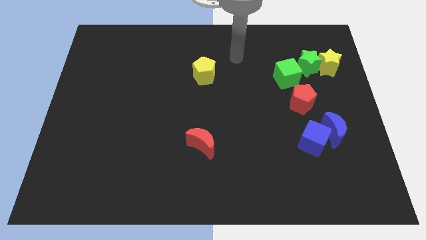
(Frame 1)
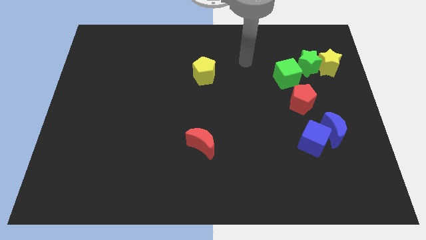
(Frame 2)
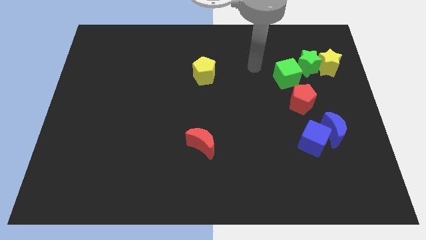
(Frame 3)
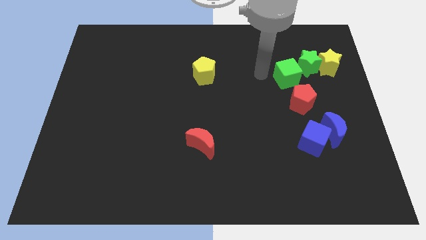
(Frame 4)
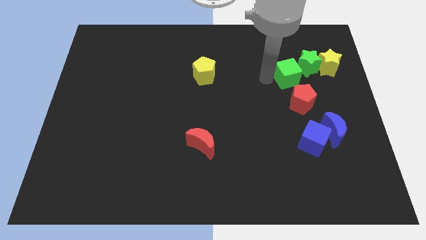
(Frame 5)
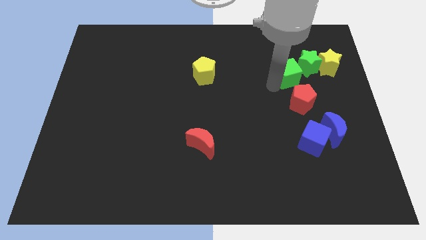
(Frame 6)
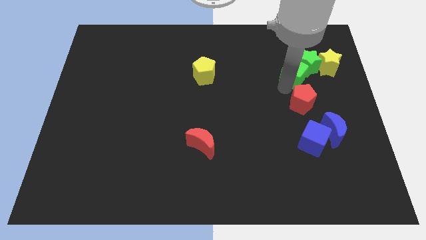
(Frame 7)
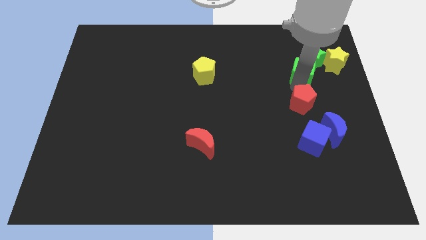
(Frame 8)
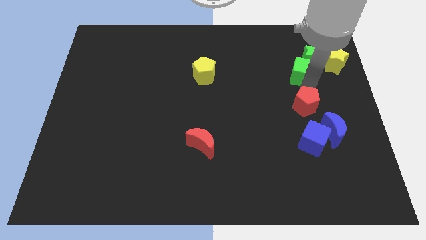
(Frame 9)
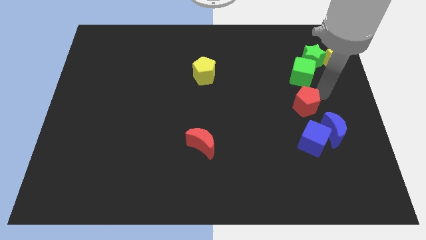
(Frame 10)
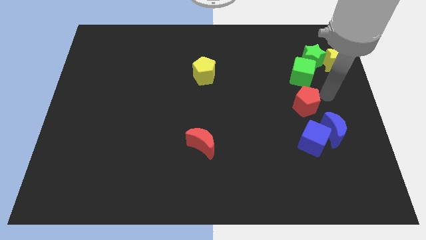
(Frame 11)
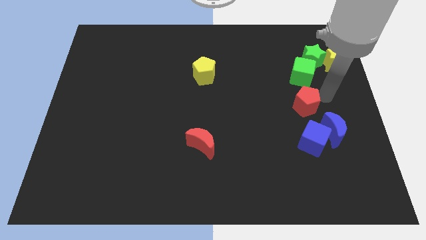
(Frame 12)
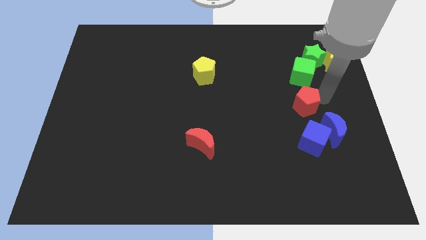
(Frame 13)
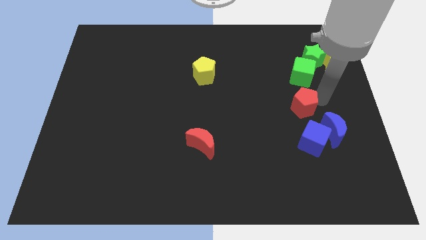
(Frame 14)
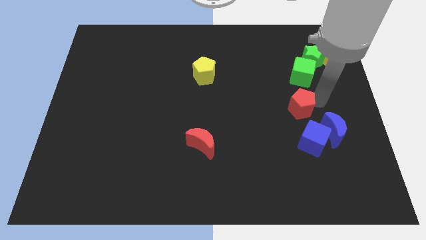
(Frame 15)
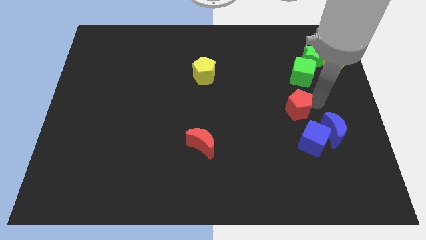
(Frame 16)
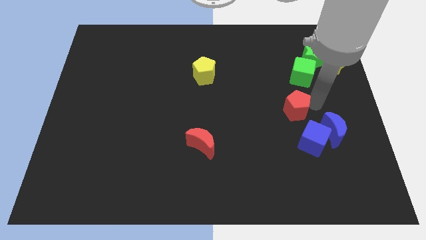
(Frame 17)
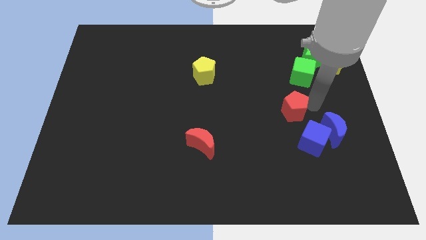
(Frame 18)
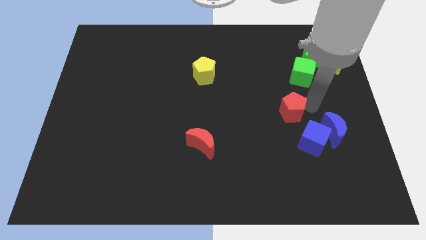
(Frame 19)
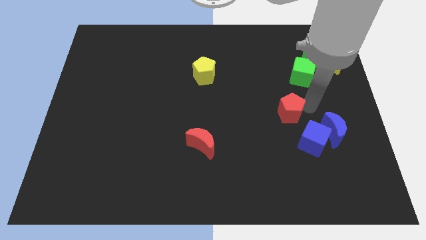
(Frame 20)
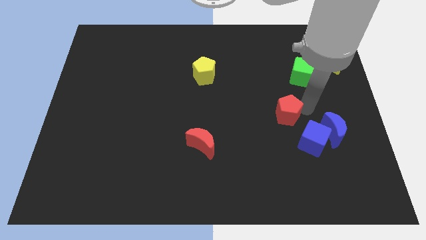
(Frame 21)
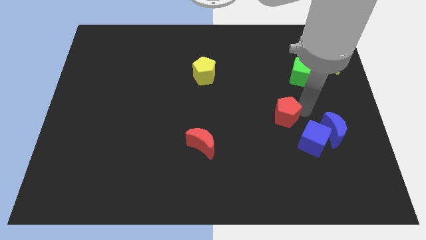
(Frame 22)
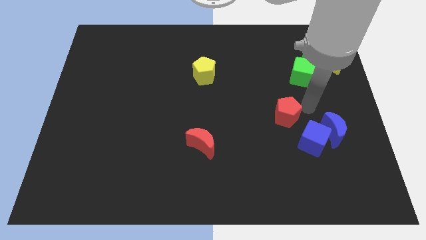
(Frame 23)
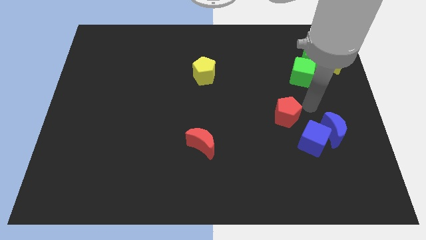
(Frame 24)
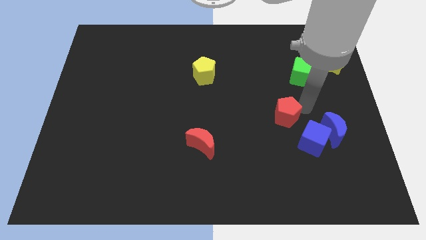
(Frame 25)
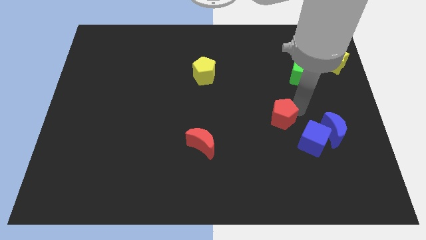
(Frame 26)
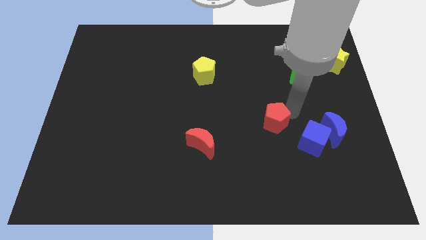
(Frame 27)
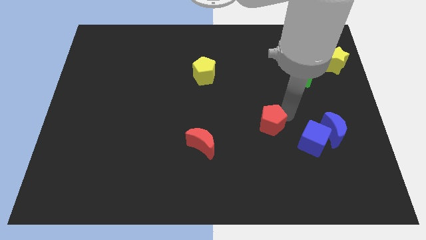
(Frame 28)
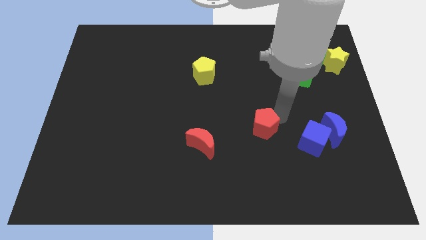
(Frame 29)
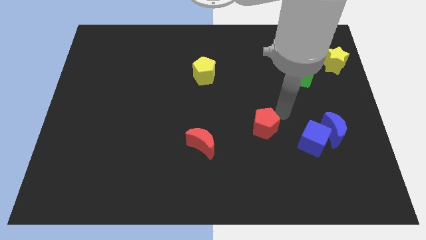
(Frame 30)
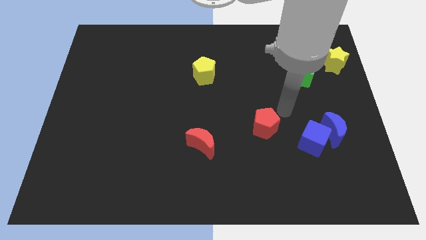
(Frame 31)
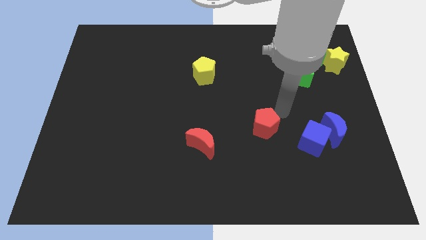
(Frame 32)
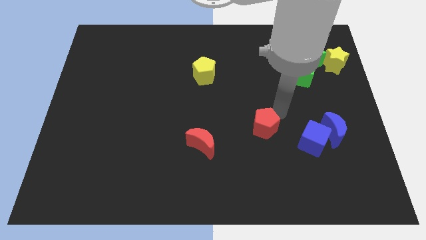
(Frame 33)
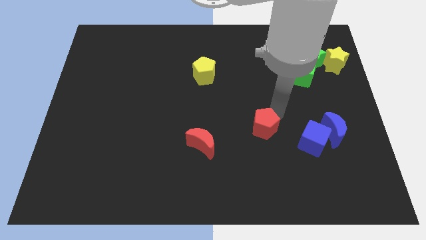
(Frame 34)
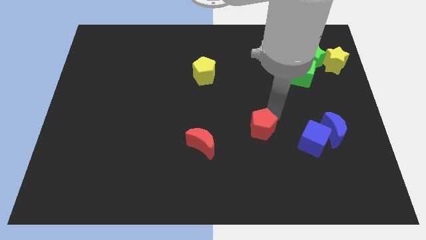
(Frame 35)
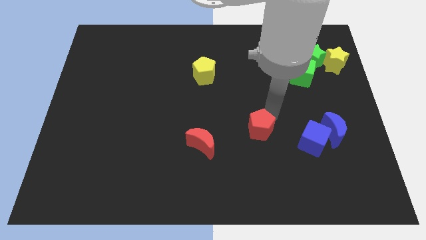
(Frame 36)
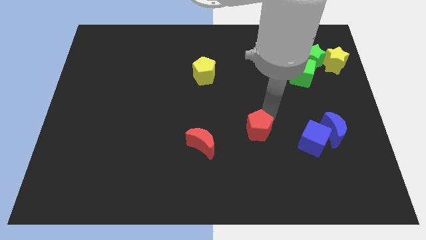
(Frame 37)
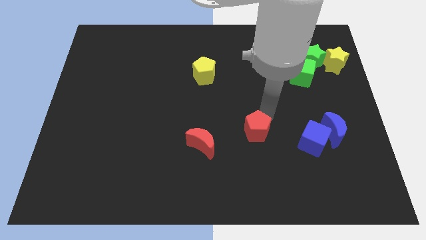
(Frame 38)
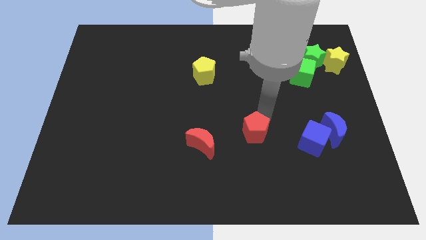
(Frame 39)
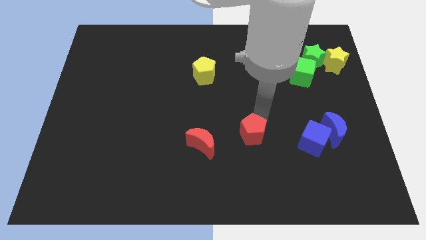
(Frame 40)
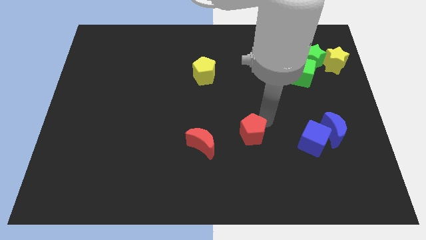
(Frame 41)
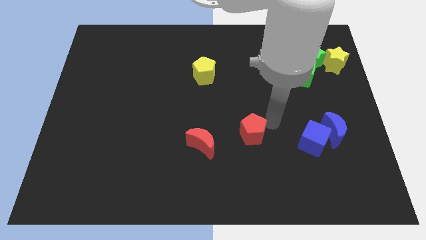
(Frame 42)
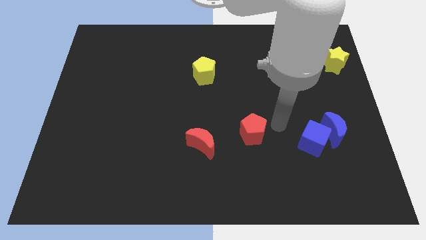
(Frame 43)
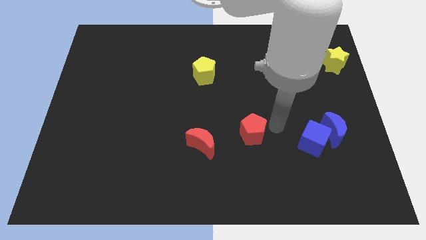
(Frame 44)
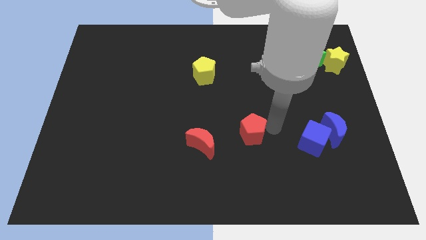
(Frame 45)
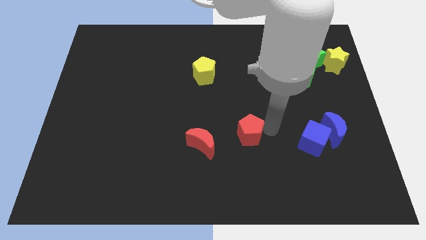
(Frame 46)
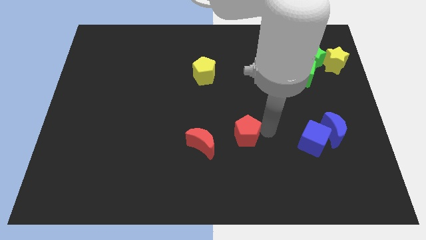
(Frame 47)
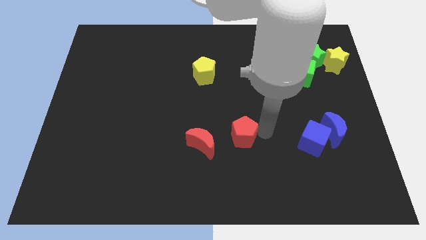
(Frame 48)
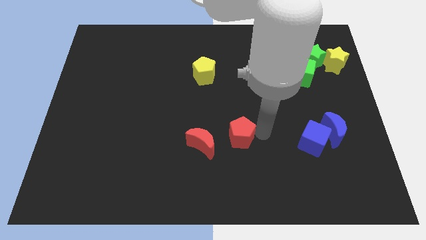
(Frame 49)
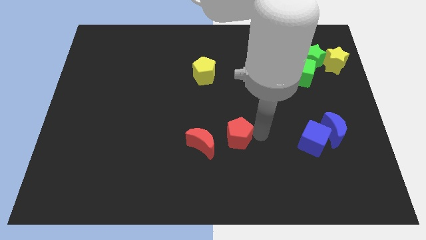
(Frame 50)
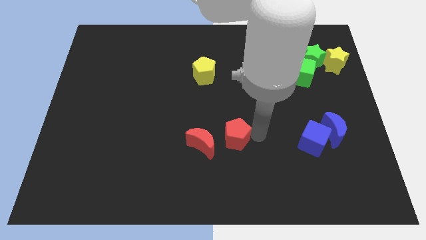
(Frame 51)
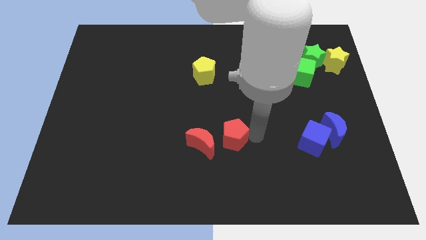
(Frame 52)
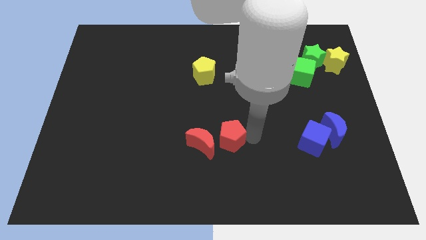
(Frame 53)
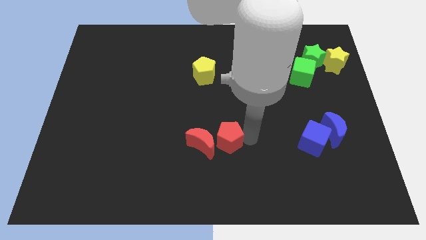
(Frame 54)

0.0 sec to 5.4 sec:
push the red pentagon next to the red moon

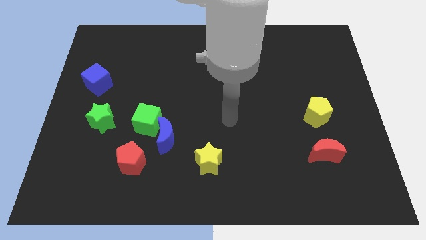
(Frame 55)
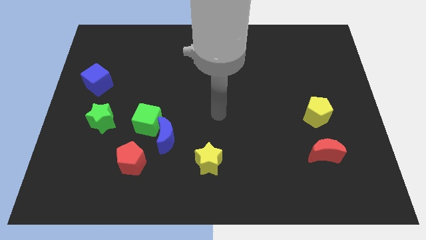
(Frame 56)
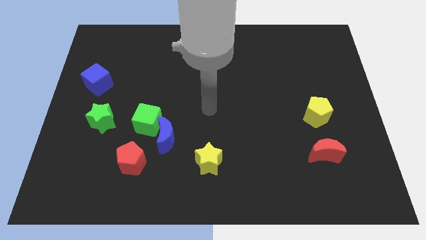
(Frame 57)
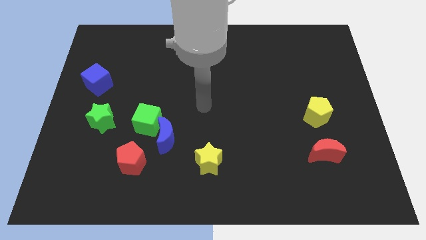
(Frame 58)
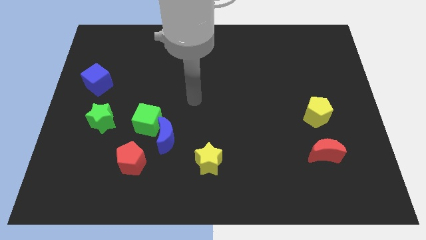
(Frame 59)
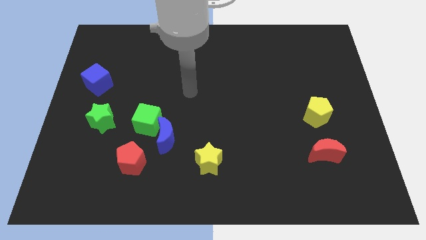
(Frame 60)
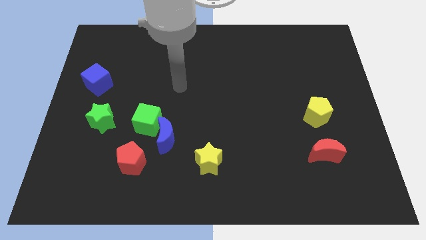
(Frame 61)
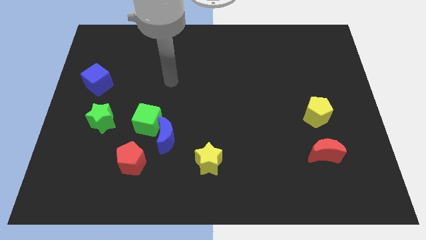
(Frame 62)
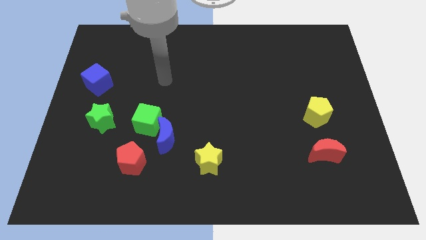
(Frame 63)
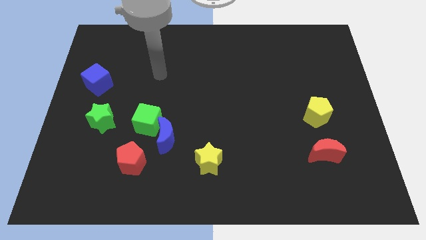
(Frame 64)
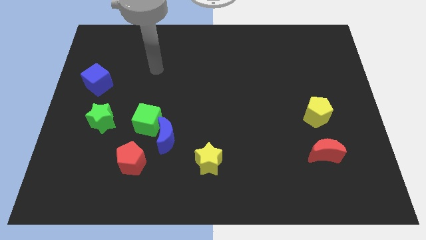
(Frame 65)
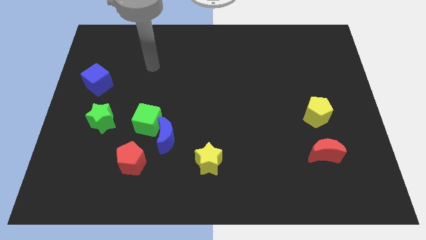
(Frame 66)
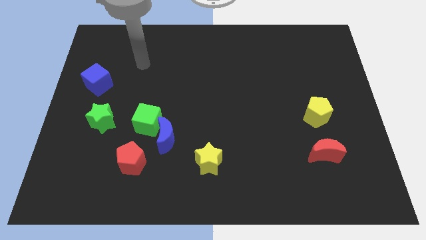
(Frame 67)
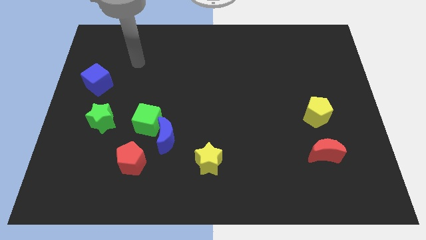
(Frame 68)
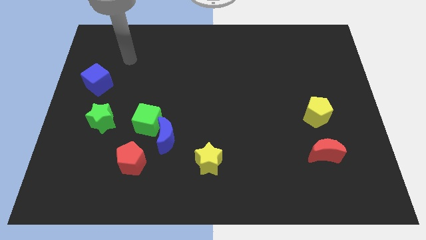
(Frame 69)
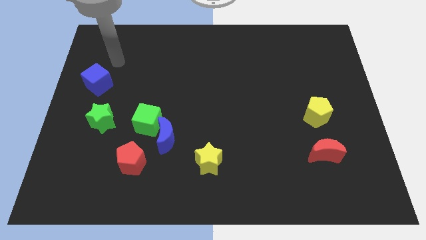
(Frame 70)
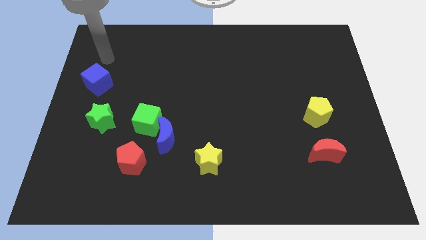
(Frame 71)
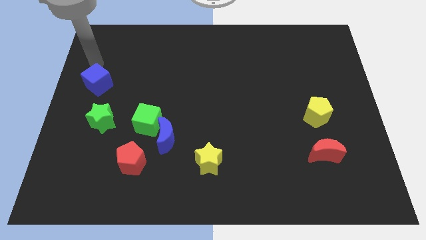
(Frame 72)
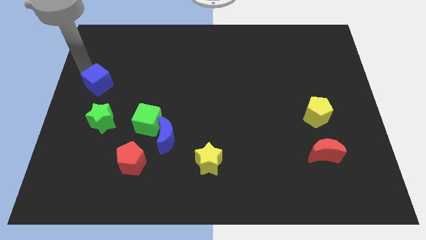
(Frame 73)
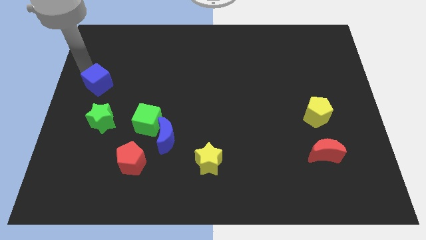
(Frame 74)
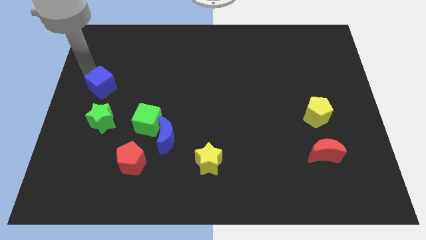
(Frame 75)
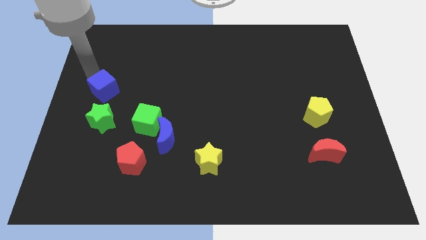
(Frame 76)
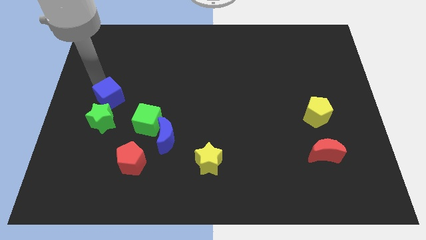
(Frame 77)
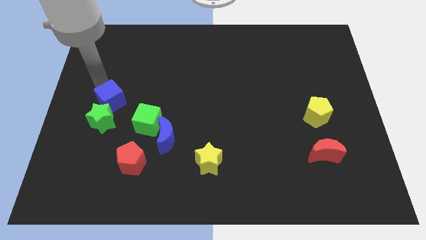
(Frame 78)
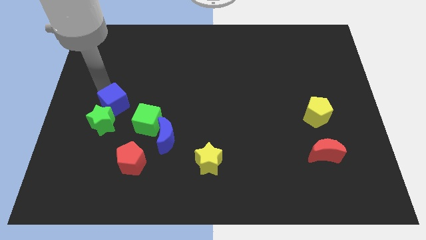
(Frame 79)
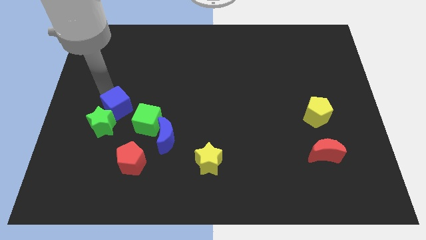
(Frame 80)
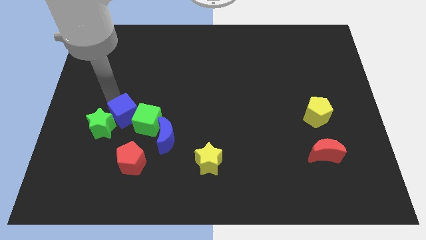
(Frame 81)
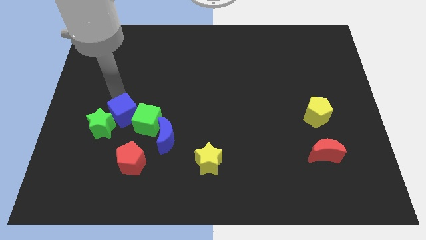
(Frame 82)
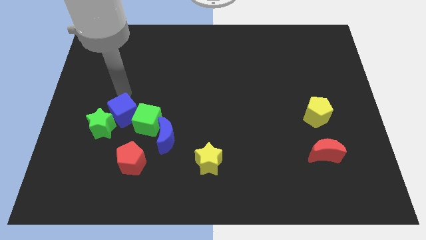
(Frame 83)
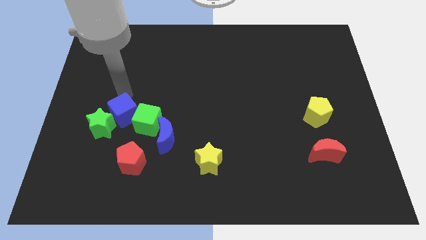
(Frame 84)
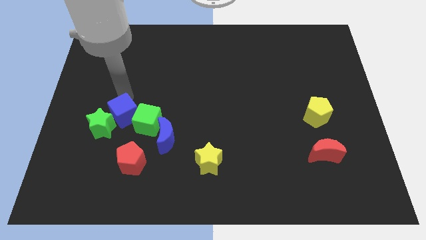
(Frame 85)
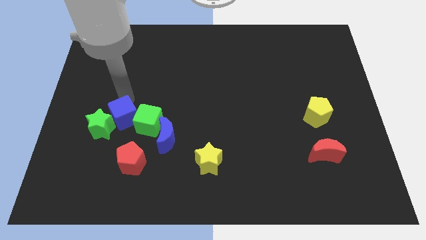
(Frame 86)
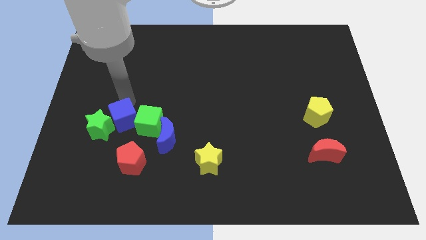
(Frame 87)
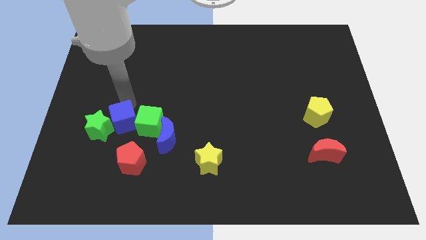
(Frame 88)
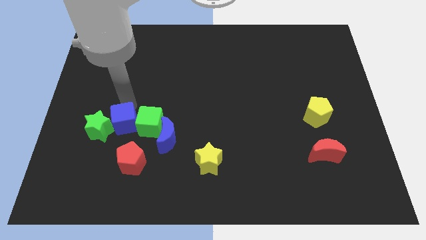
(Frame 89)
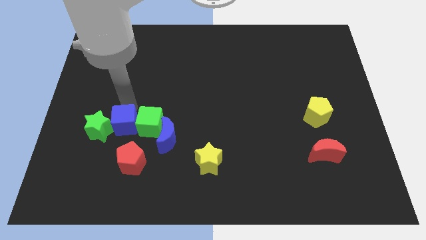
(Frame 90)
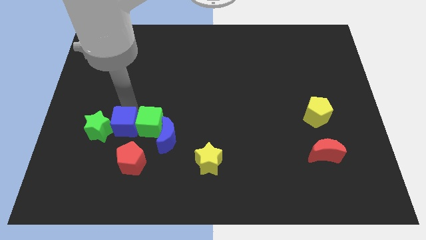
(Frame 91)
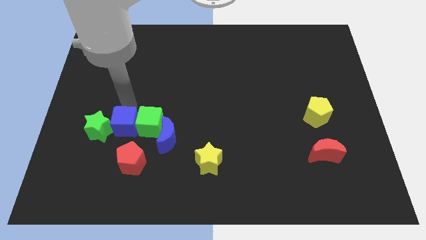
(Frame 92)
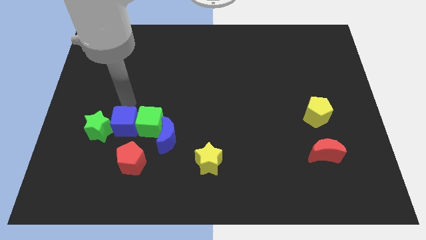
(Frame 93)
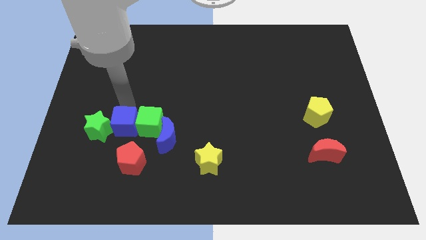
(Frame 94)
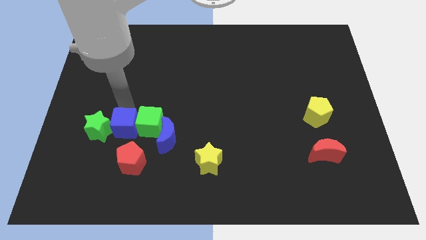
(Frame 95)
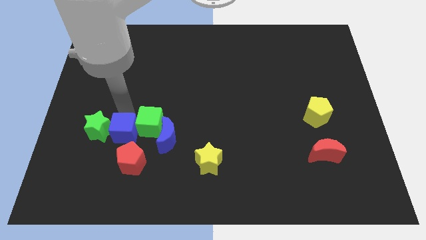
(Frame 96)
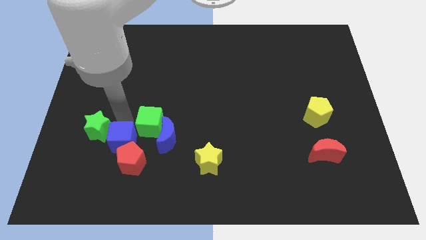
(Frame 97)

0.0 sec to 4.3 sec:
move the blue cube to the red pentagon
